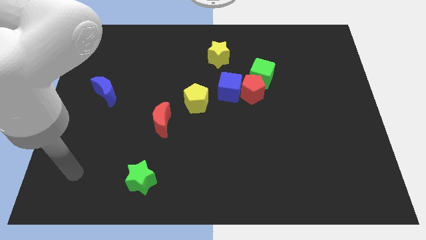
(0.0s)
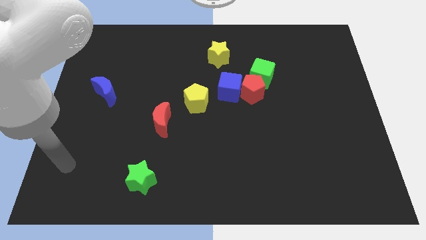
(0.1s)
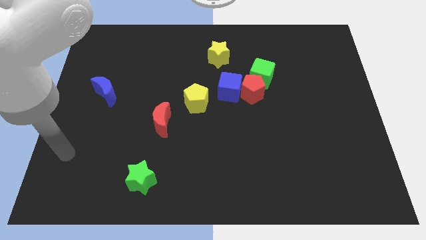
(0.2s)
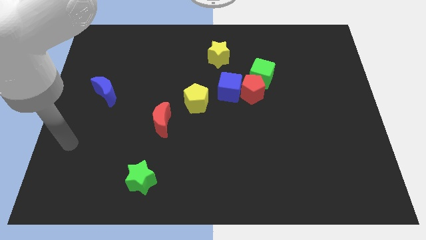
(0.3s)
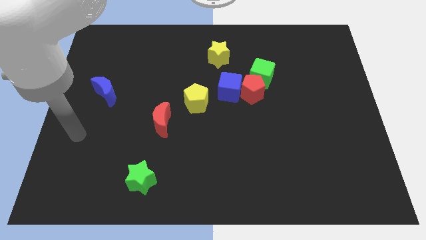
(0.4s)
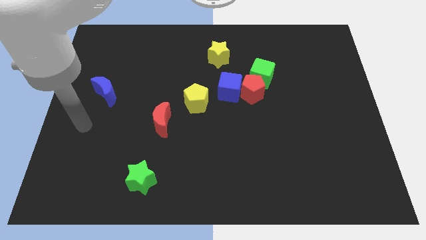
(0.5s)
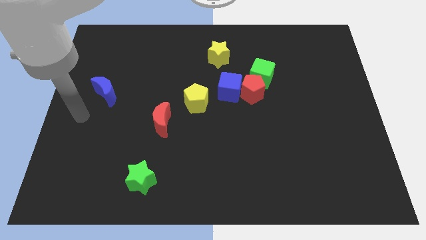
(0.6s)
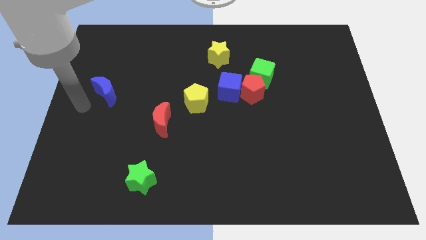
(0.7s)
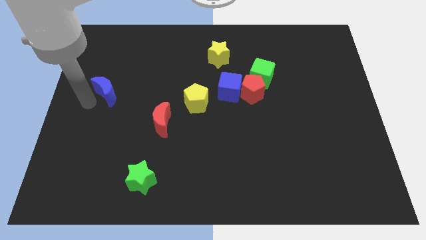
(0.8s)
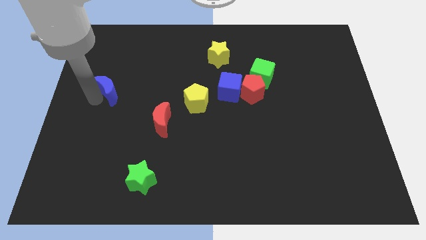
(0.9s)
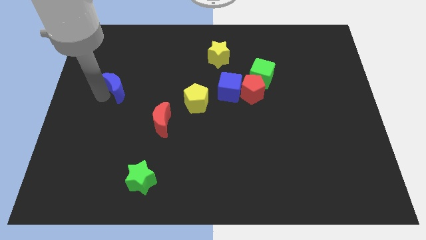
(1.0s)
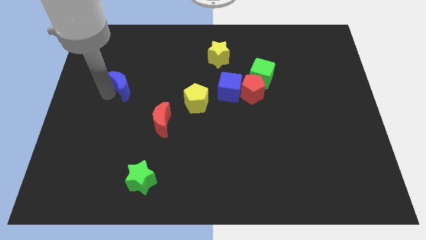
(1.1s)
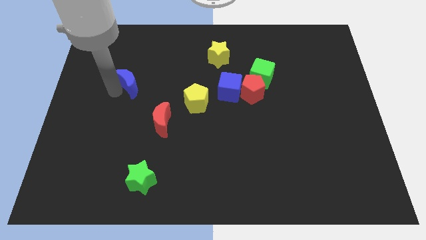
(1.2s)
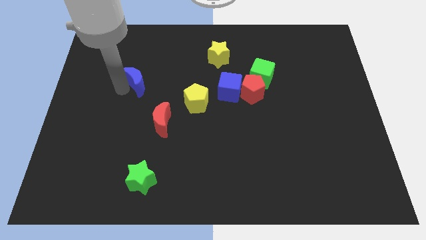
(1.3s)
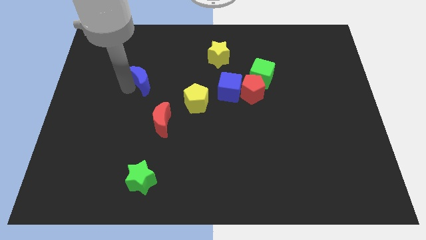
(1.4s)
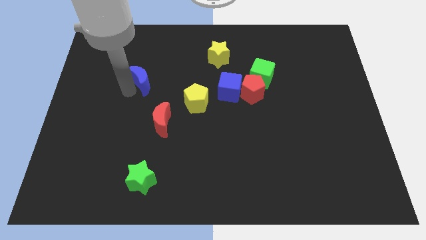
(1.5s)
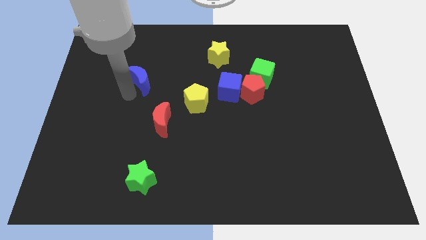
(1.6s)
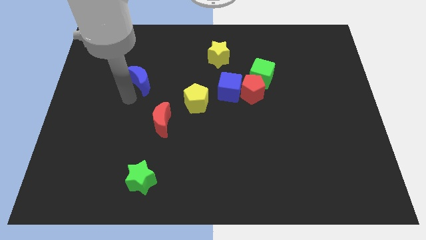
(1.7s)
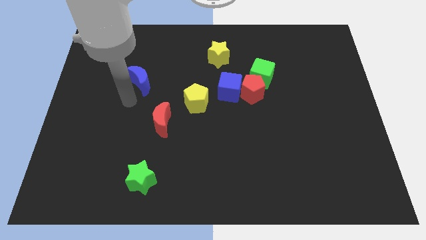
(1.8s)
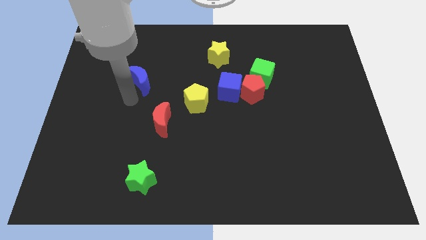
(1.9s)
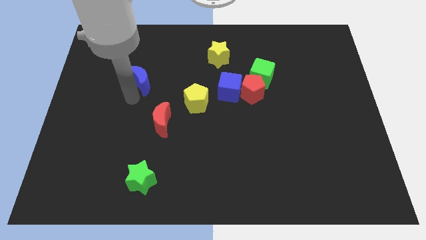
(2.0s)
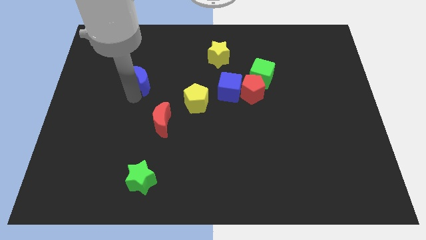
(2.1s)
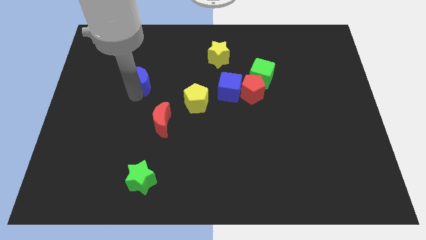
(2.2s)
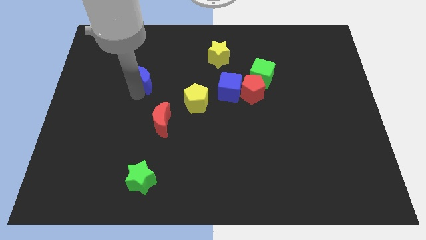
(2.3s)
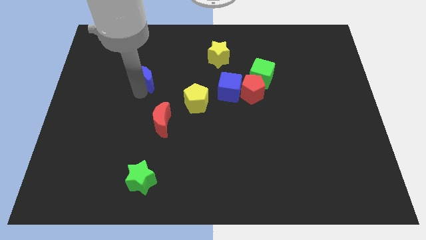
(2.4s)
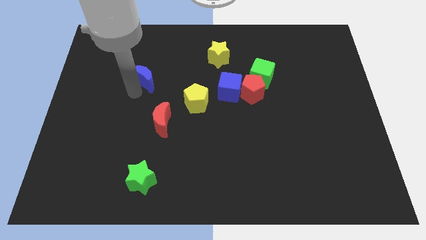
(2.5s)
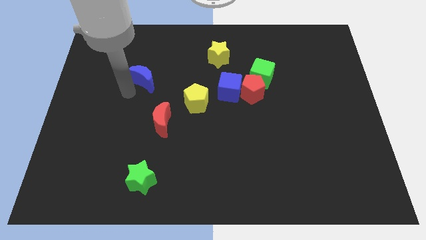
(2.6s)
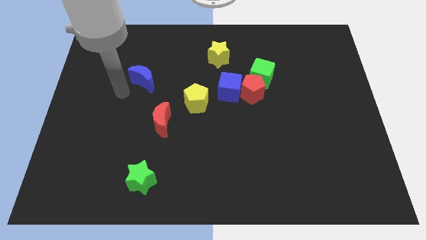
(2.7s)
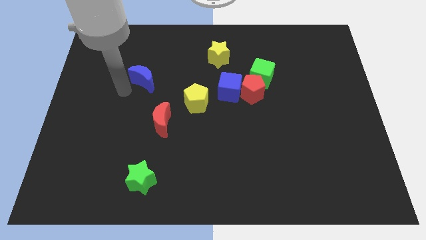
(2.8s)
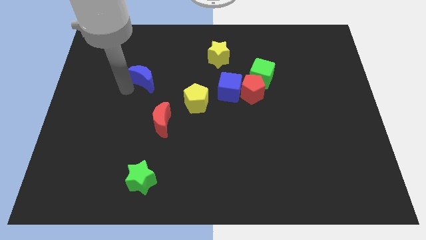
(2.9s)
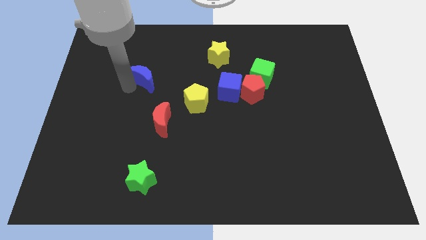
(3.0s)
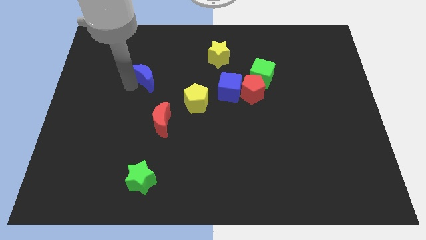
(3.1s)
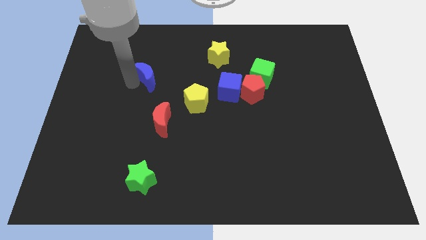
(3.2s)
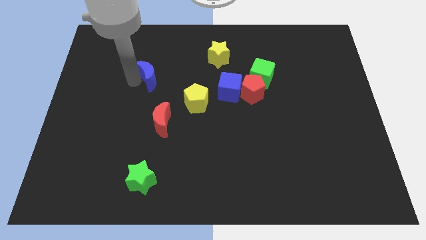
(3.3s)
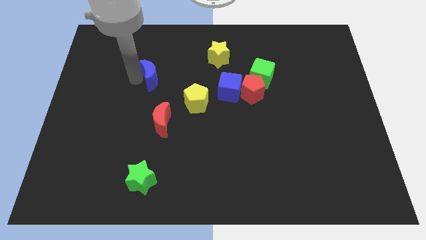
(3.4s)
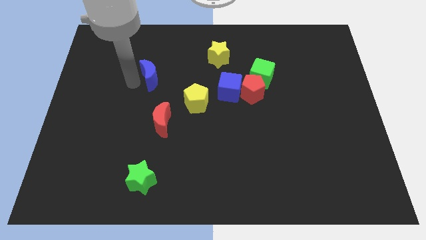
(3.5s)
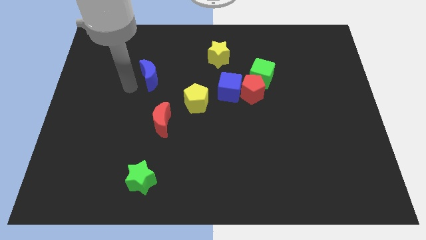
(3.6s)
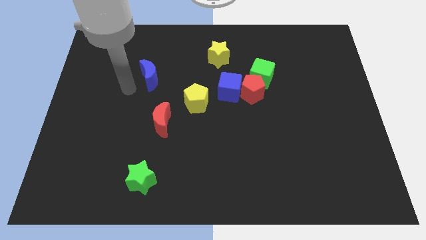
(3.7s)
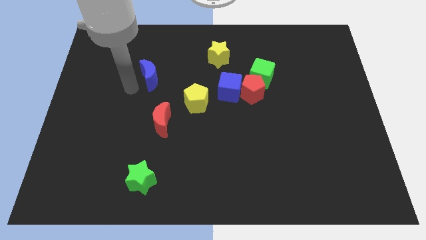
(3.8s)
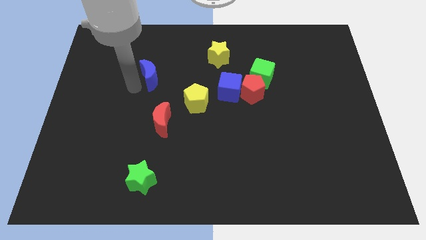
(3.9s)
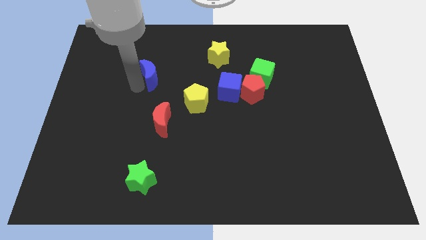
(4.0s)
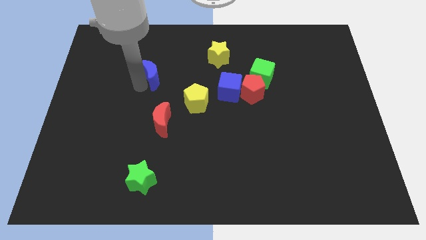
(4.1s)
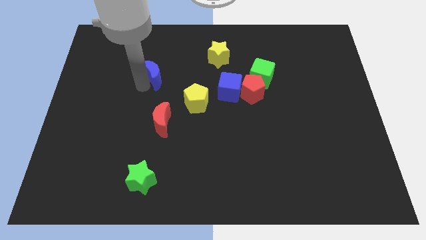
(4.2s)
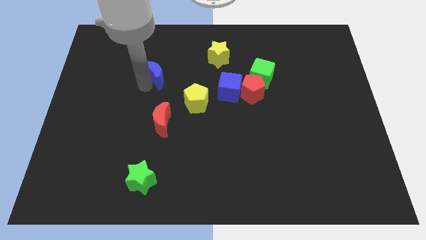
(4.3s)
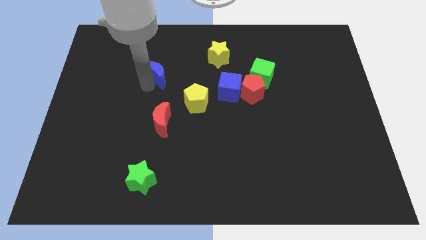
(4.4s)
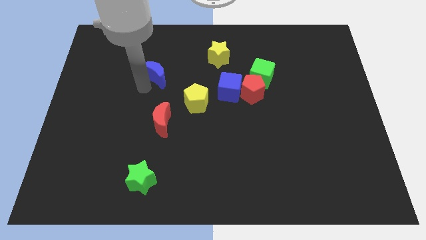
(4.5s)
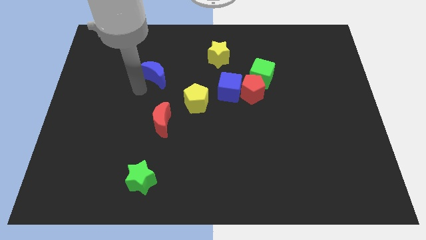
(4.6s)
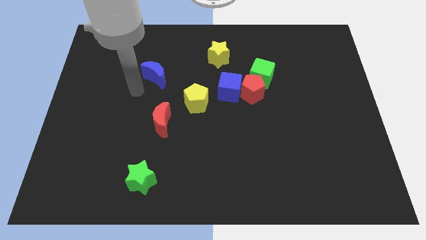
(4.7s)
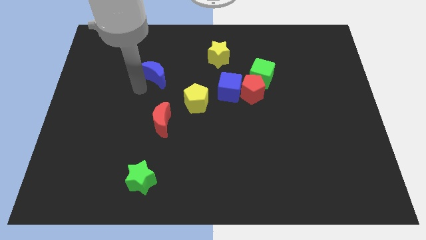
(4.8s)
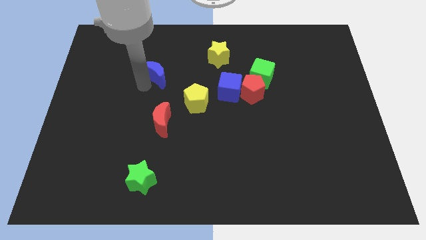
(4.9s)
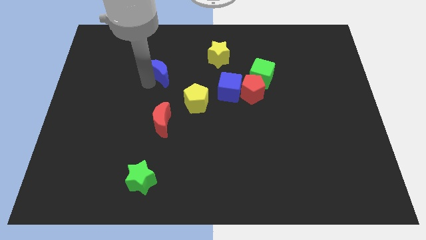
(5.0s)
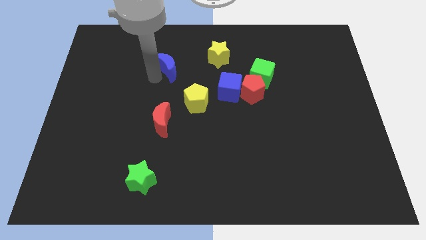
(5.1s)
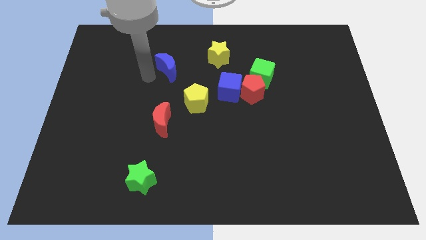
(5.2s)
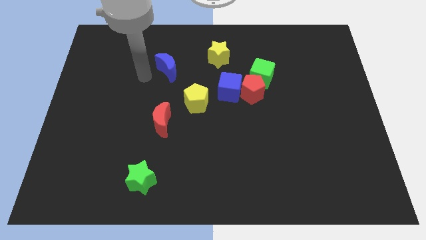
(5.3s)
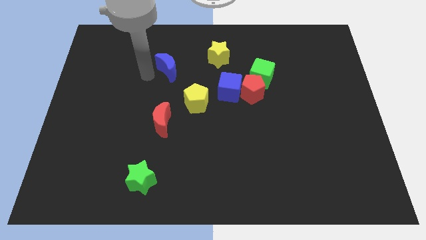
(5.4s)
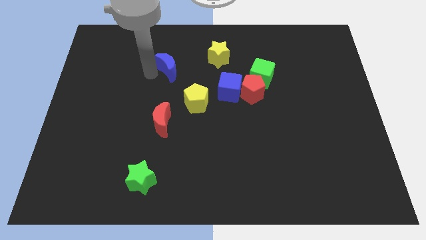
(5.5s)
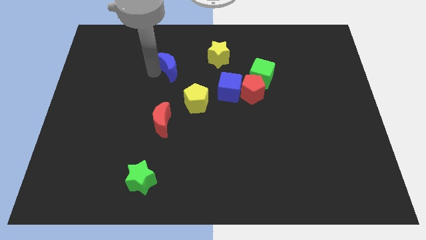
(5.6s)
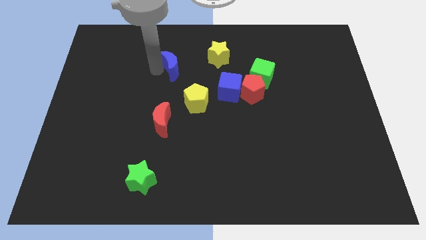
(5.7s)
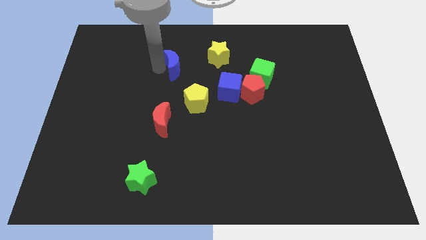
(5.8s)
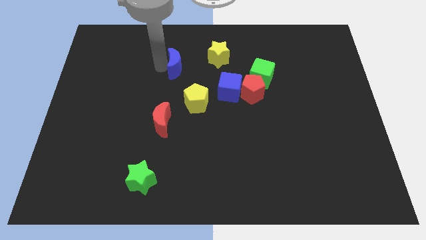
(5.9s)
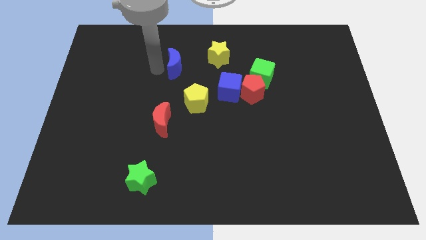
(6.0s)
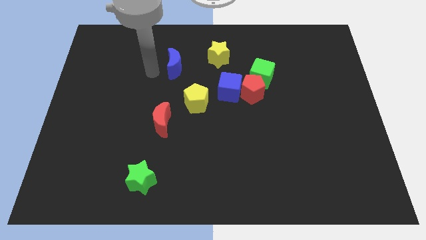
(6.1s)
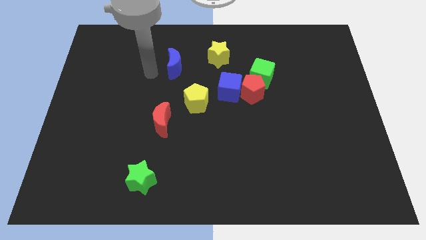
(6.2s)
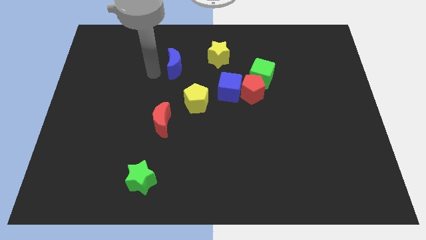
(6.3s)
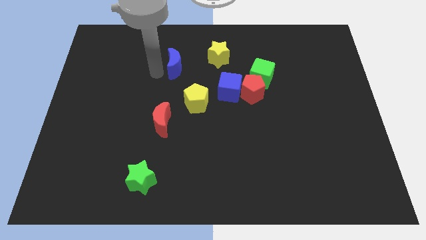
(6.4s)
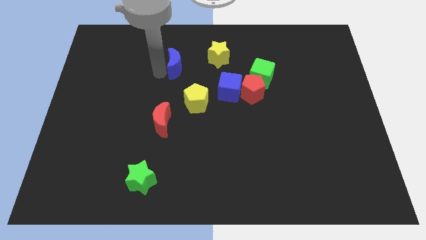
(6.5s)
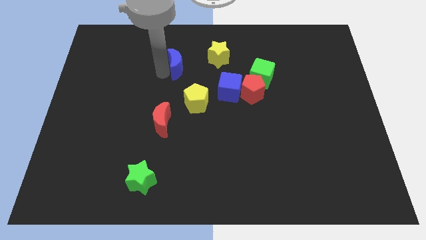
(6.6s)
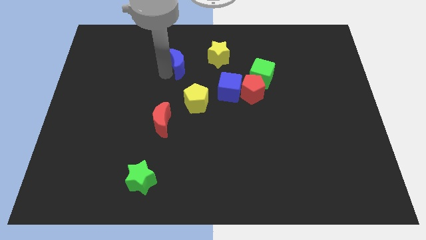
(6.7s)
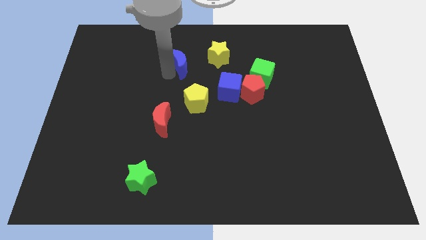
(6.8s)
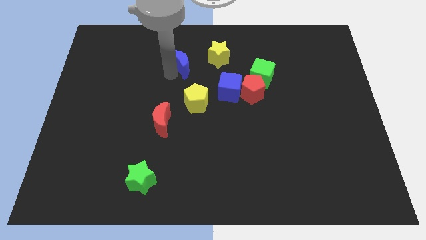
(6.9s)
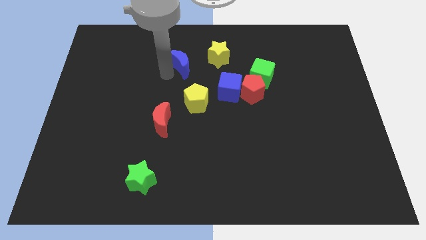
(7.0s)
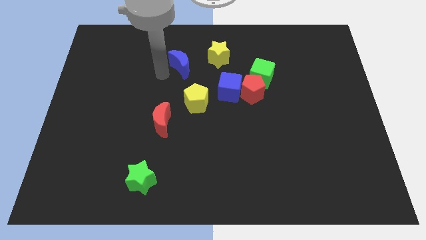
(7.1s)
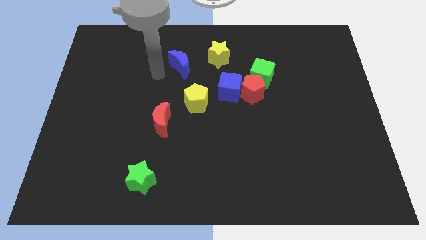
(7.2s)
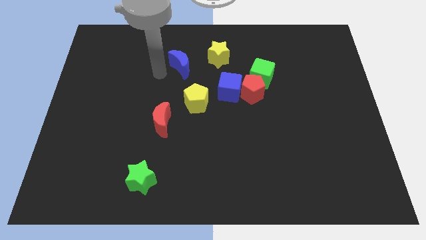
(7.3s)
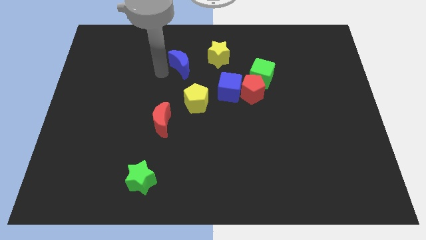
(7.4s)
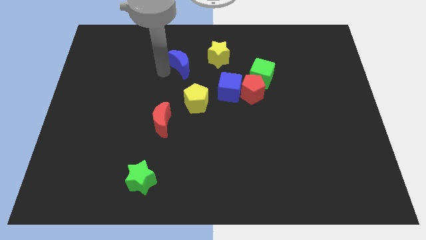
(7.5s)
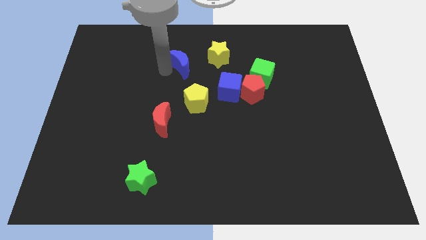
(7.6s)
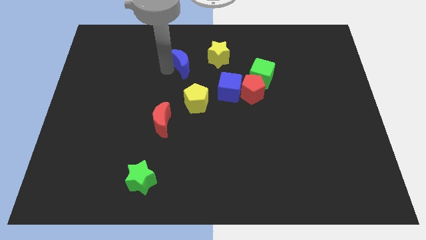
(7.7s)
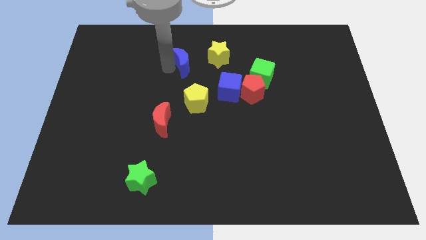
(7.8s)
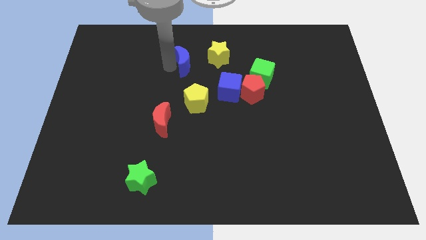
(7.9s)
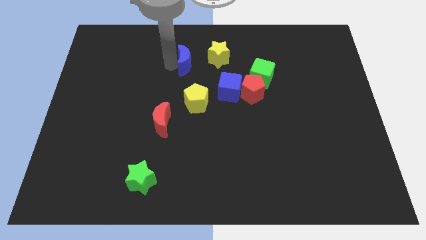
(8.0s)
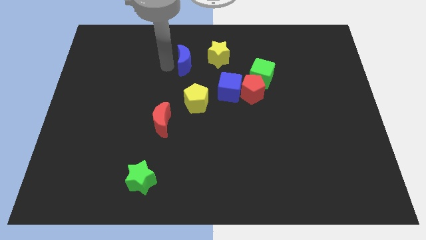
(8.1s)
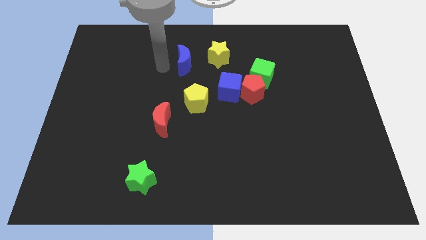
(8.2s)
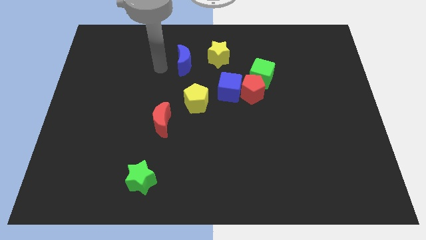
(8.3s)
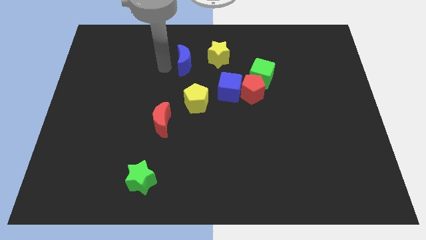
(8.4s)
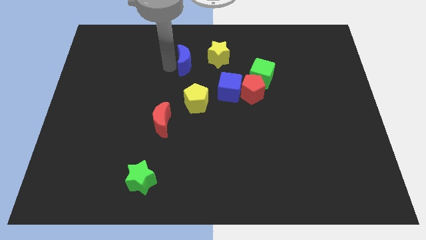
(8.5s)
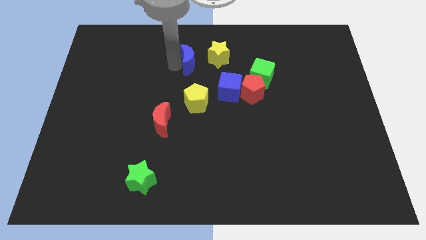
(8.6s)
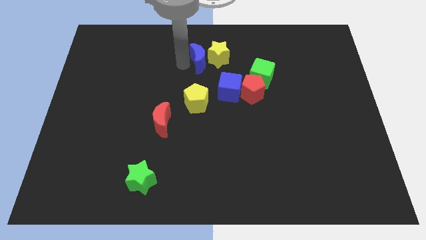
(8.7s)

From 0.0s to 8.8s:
put the blue moon towards the yellow star
